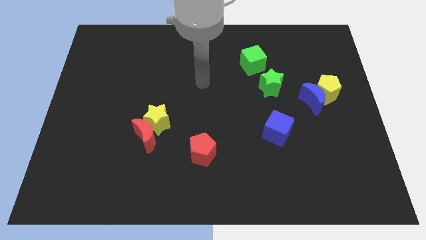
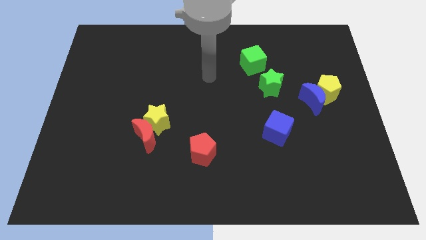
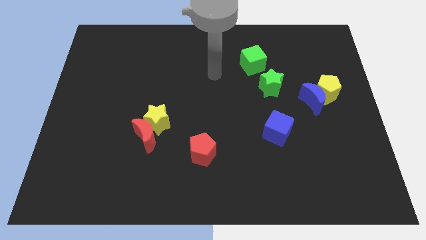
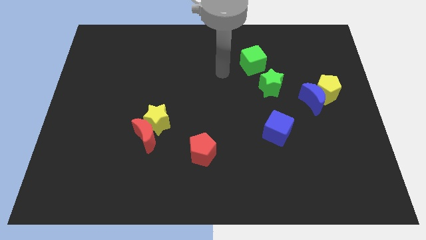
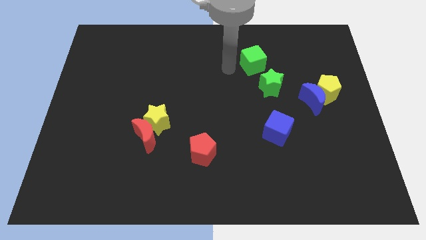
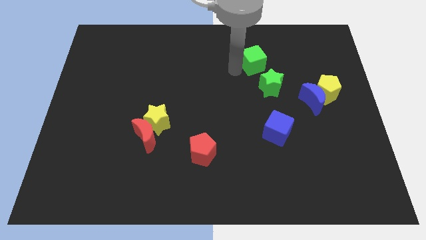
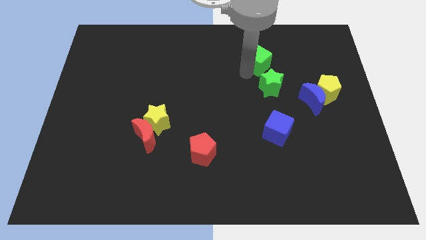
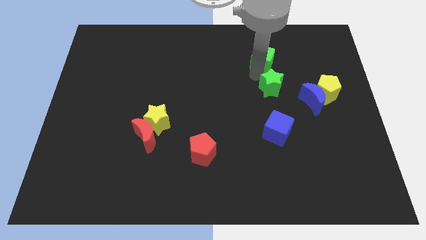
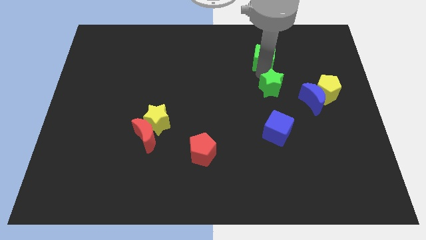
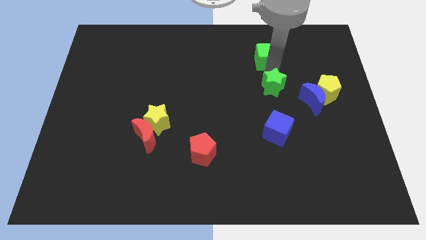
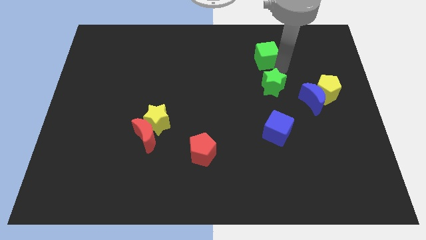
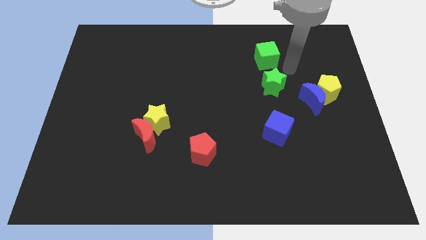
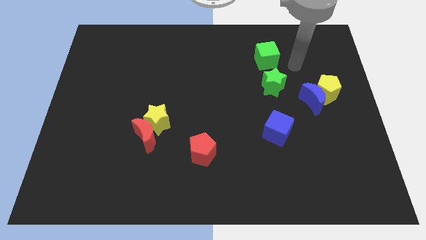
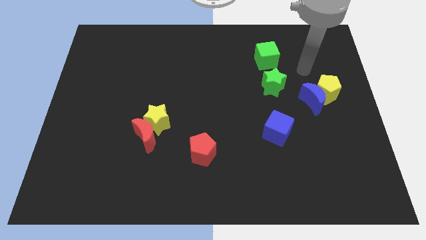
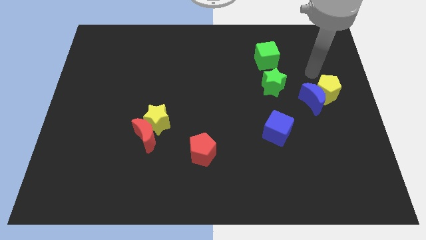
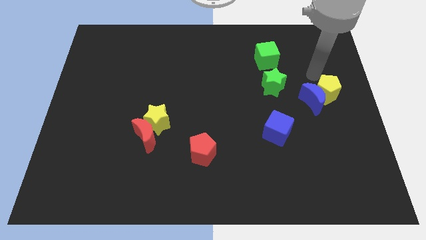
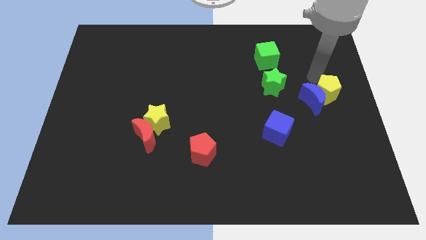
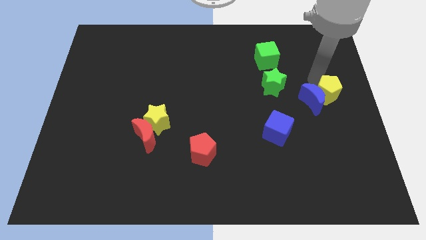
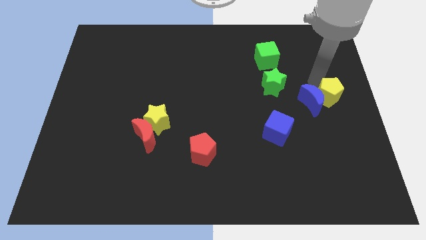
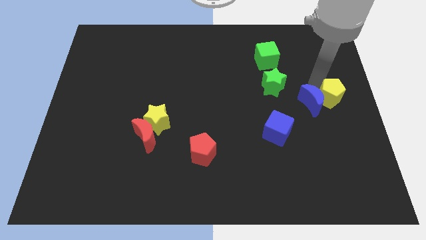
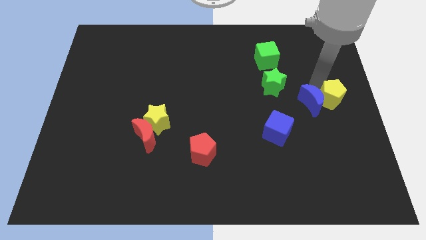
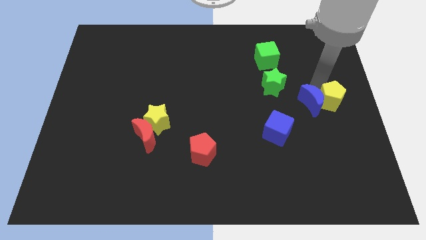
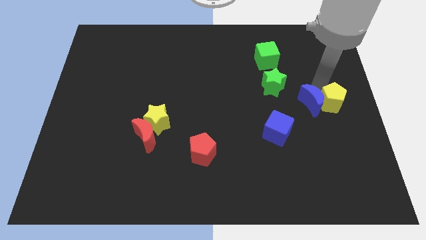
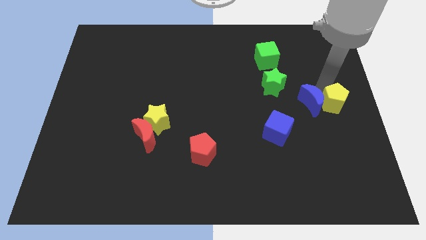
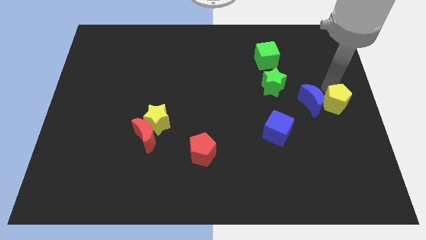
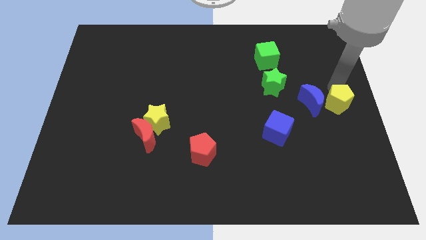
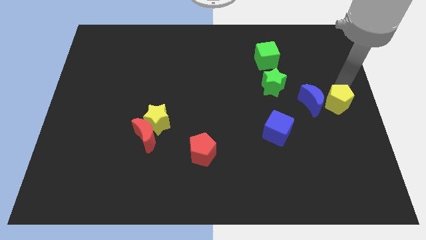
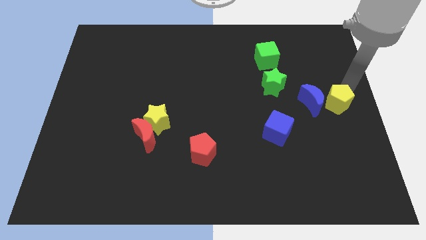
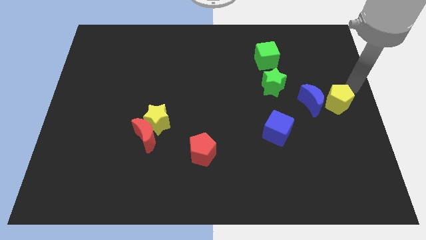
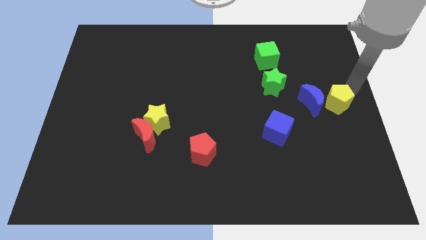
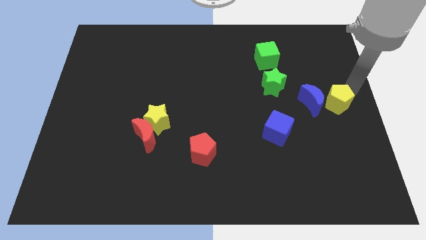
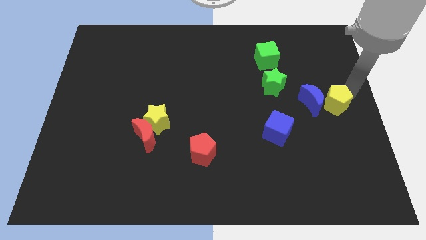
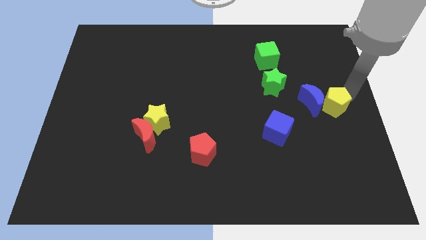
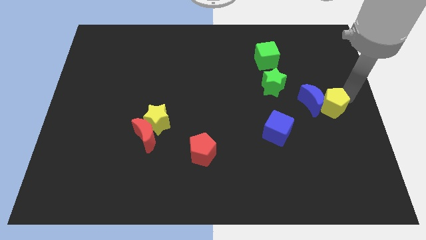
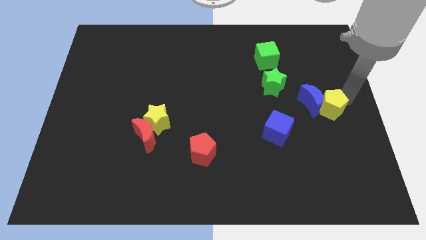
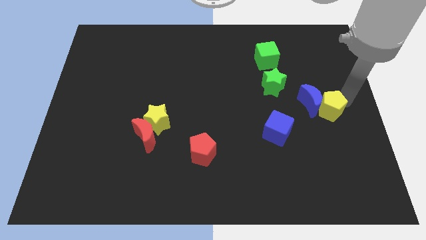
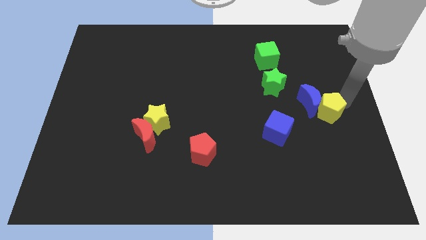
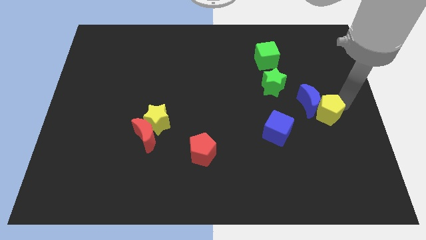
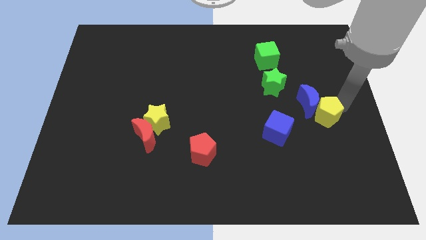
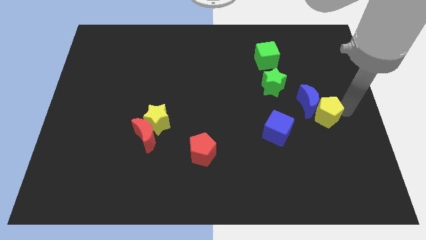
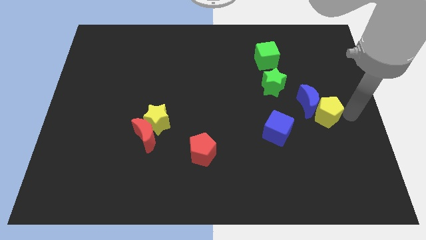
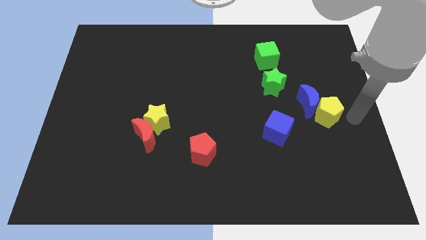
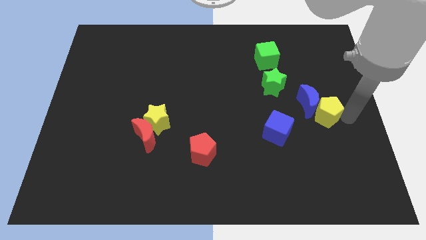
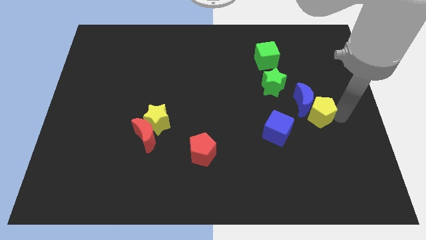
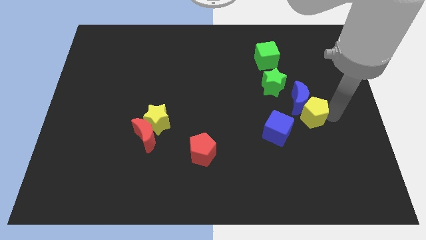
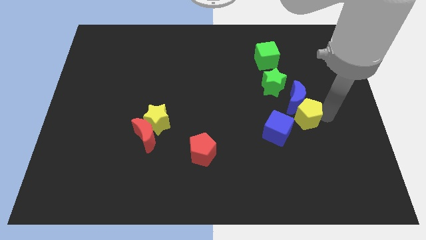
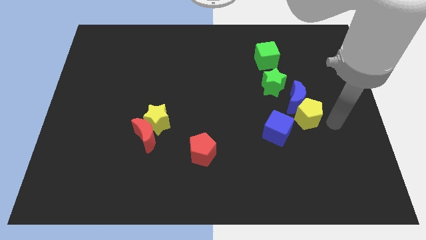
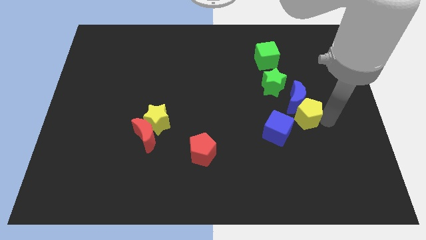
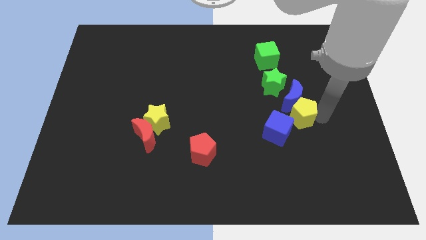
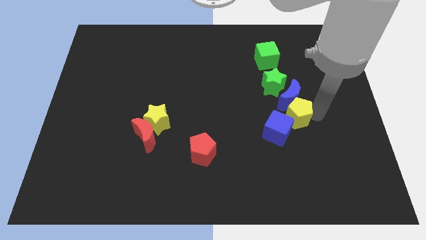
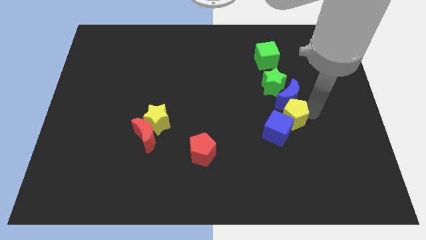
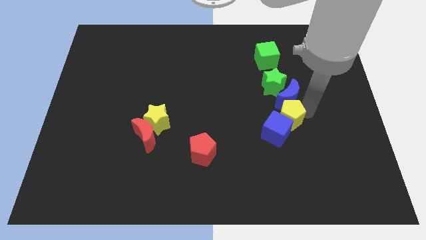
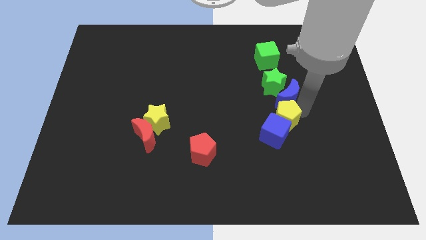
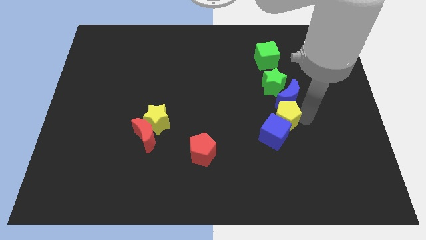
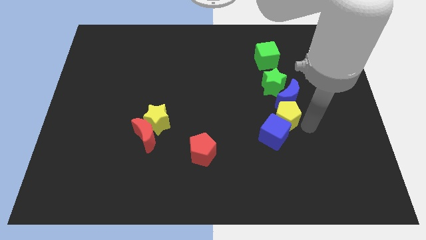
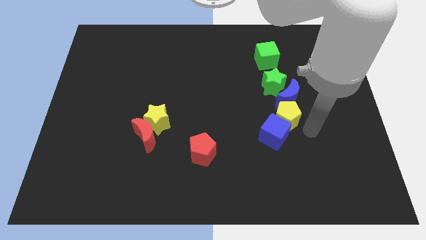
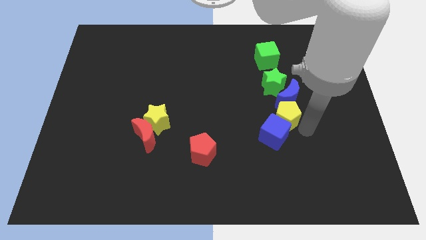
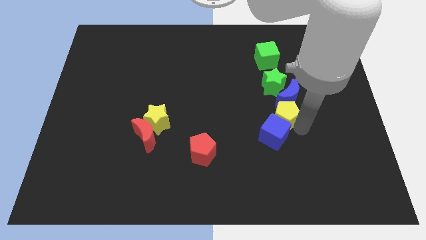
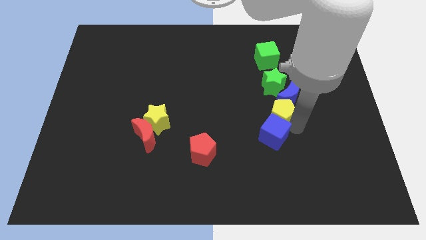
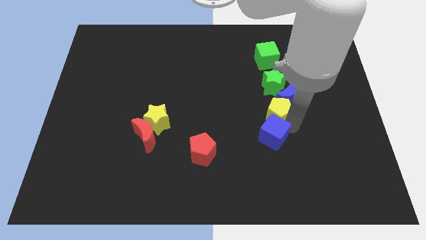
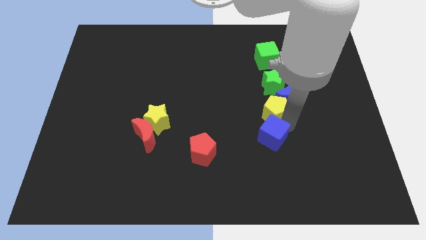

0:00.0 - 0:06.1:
push the yellow pentagon to the left of the blue moon

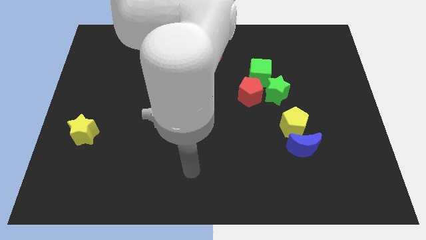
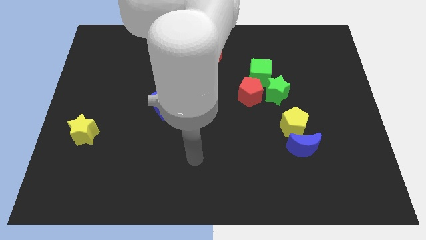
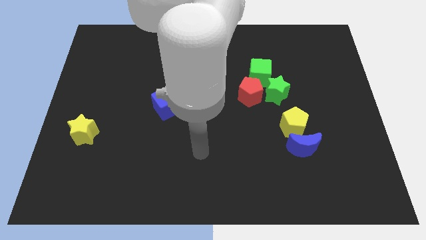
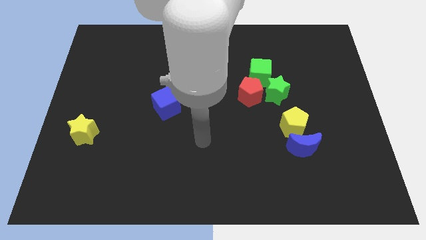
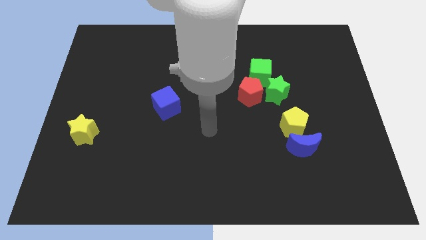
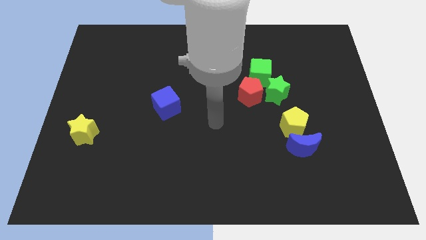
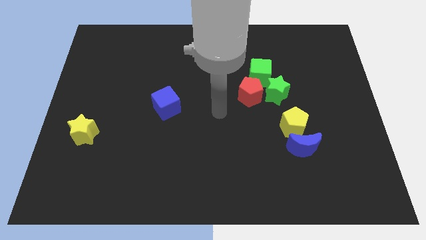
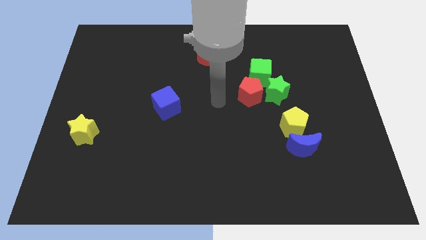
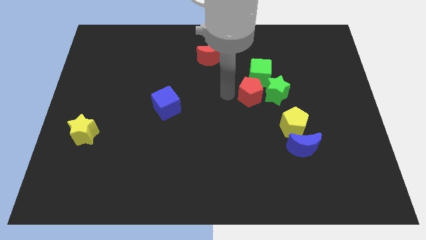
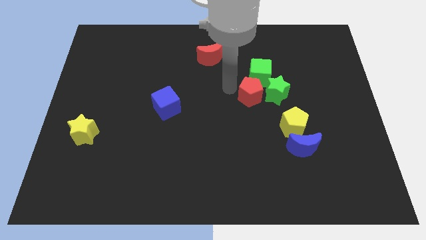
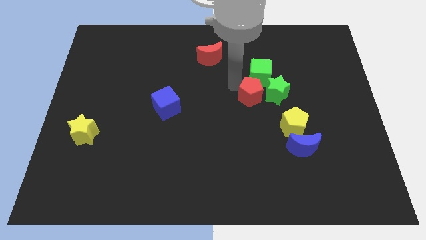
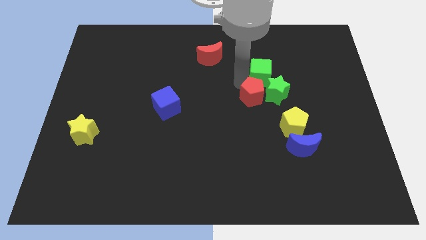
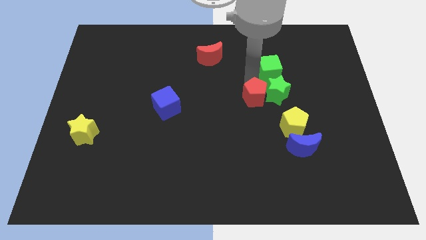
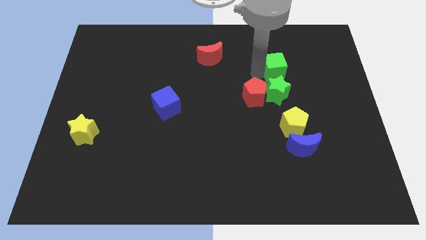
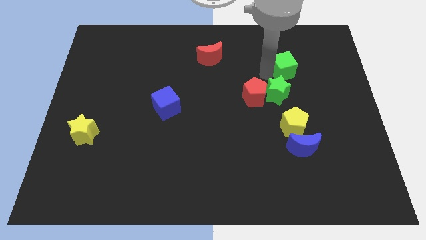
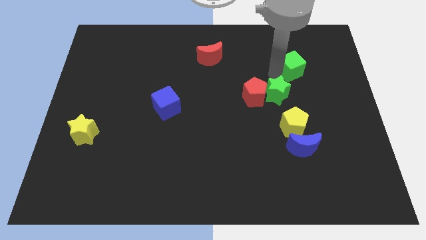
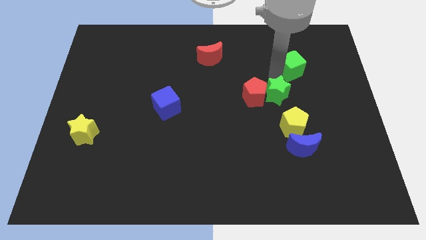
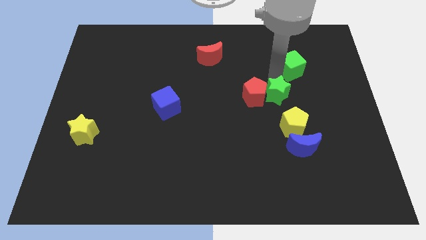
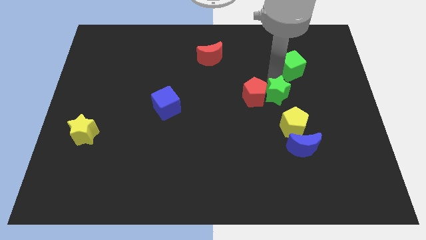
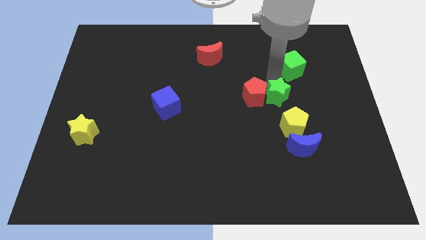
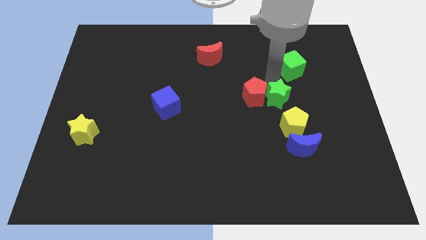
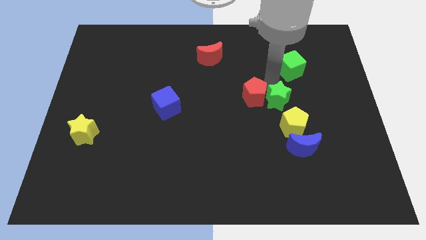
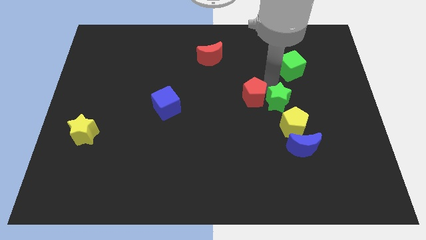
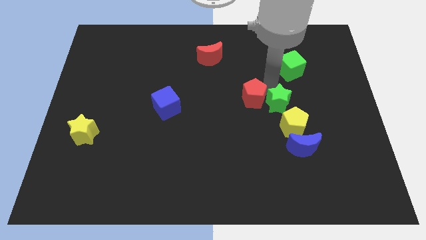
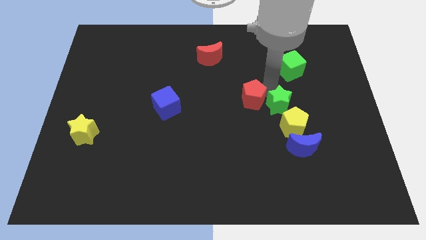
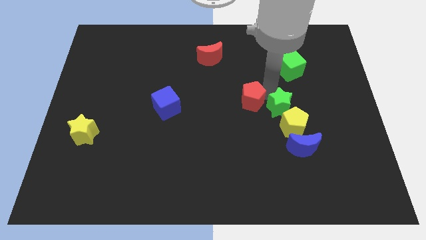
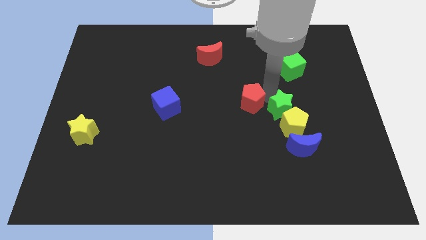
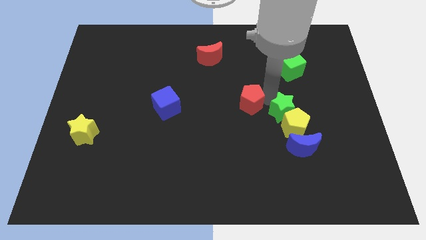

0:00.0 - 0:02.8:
slide the green star to the top left of the blue moon
